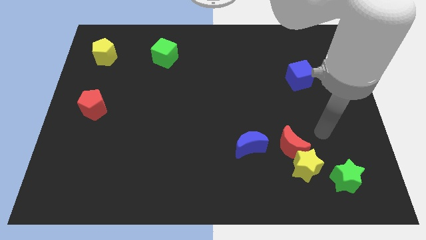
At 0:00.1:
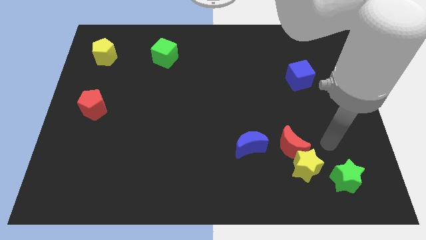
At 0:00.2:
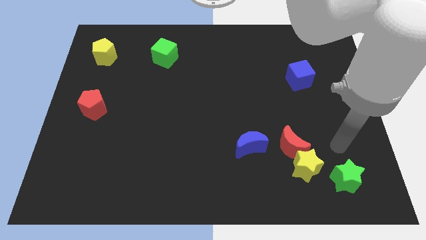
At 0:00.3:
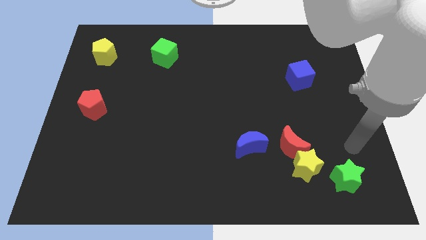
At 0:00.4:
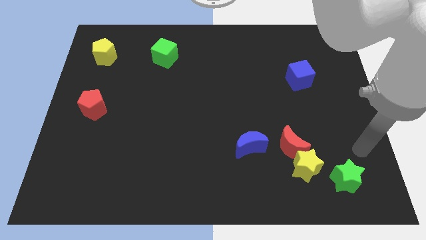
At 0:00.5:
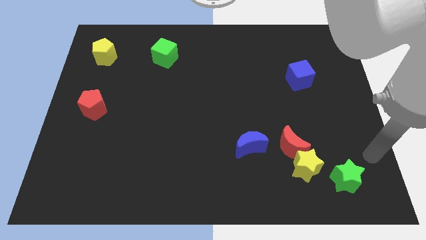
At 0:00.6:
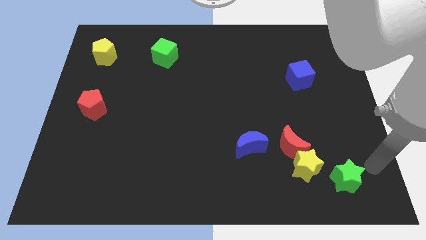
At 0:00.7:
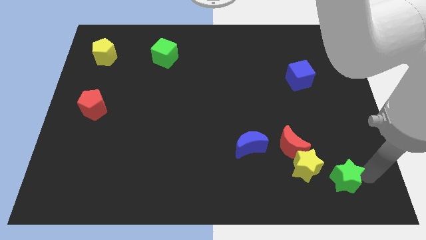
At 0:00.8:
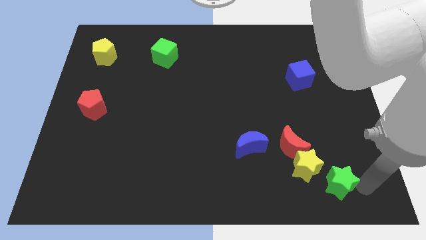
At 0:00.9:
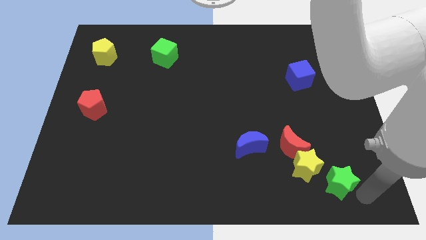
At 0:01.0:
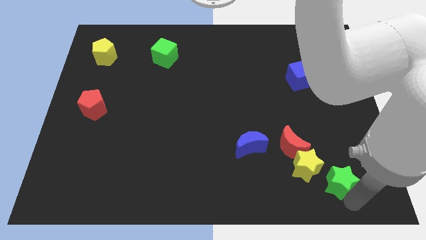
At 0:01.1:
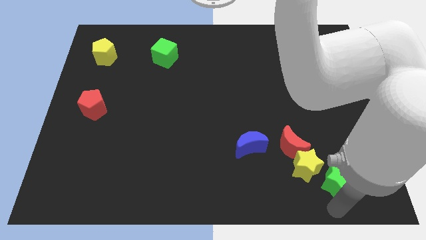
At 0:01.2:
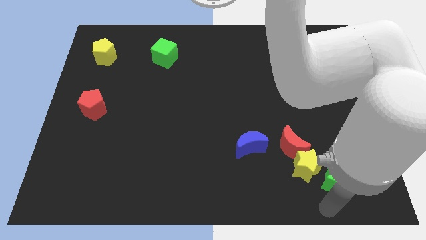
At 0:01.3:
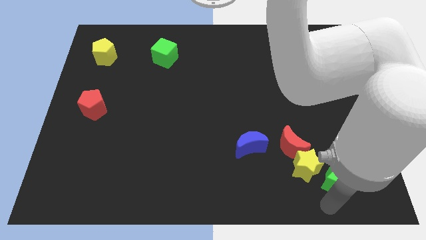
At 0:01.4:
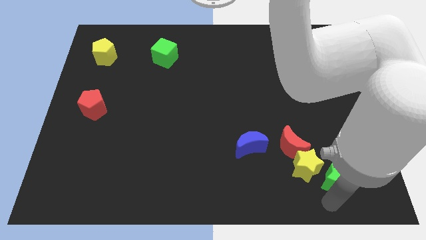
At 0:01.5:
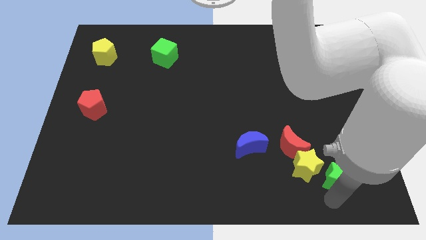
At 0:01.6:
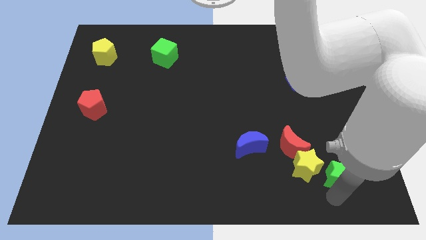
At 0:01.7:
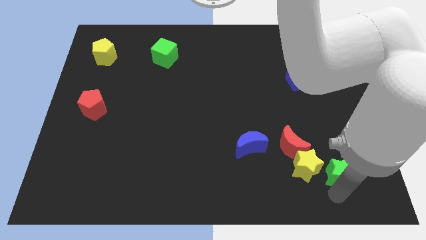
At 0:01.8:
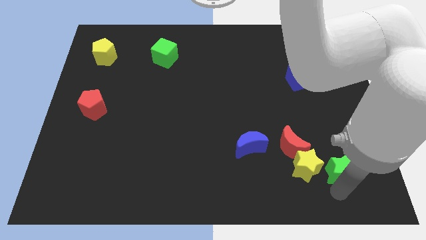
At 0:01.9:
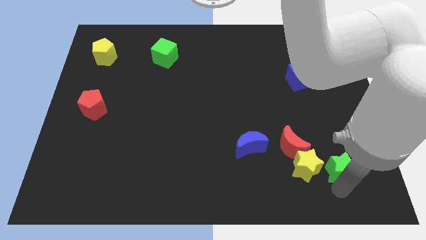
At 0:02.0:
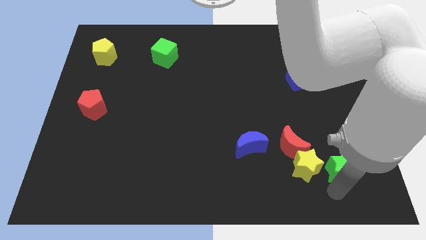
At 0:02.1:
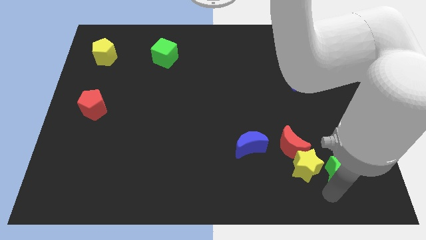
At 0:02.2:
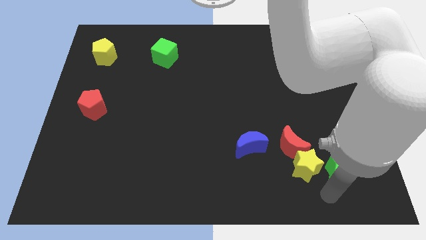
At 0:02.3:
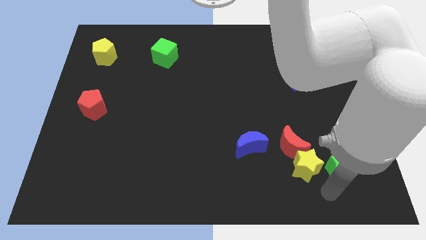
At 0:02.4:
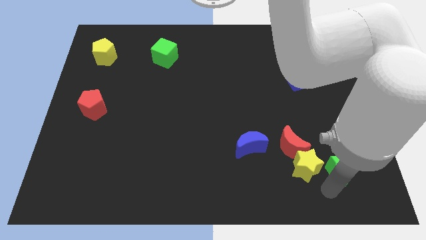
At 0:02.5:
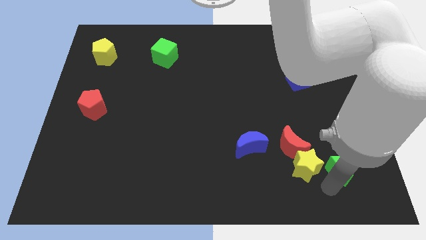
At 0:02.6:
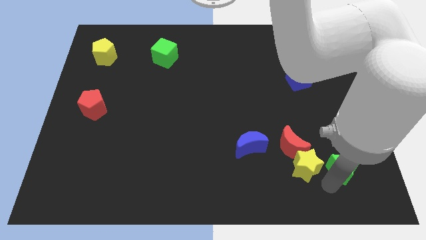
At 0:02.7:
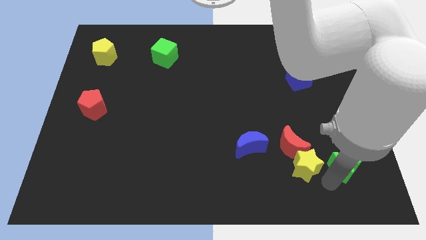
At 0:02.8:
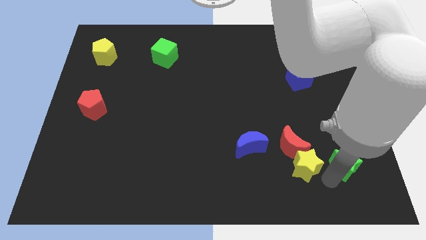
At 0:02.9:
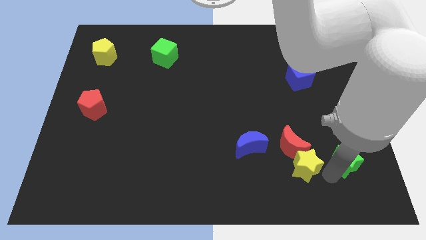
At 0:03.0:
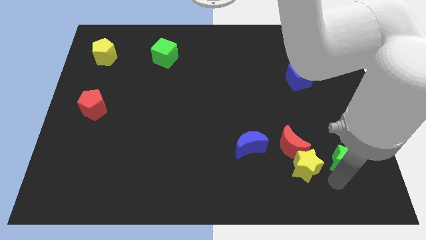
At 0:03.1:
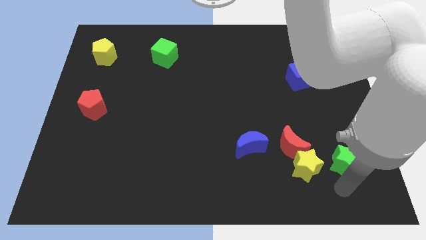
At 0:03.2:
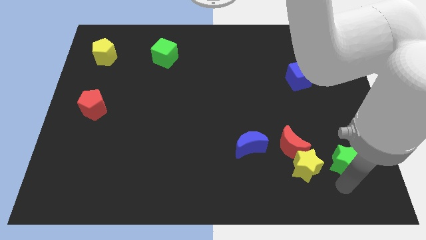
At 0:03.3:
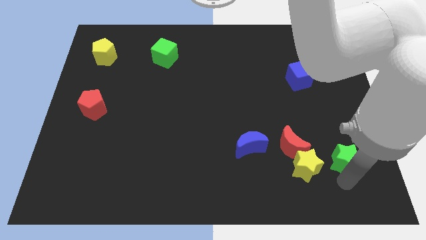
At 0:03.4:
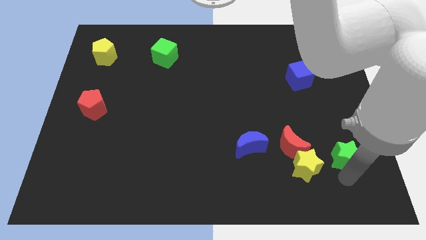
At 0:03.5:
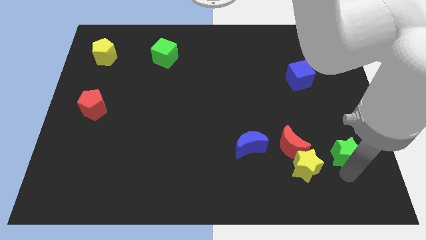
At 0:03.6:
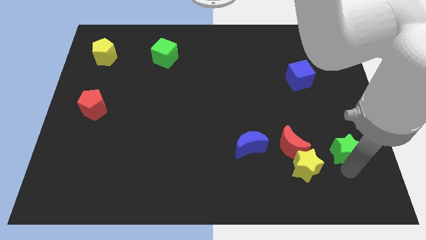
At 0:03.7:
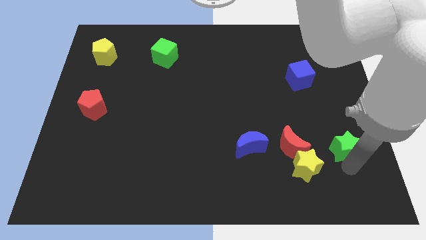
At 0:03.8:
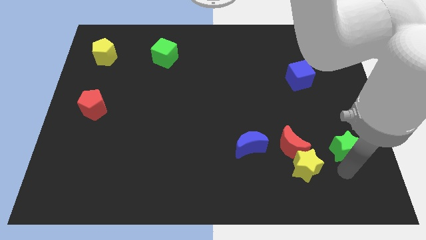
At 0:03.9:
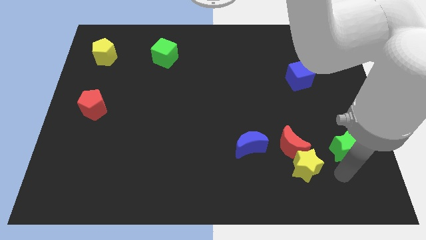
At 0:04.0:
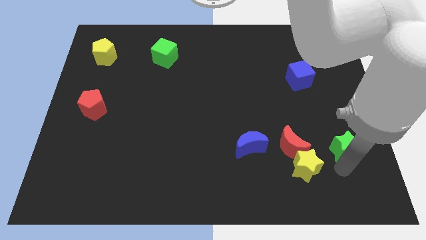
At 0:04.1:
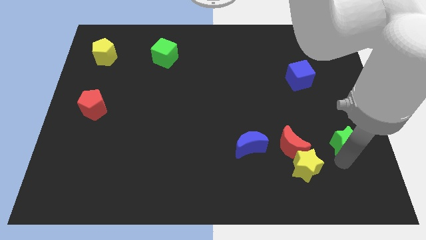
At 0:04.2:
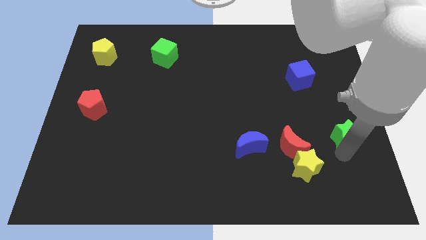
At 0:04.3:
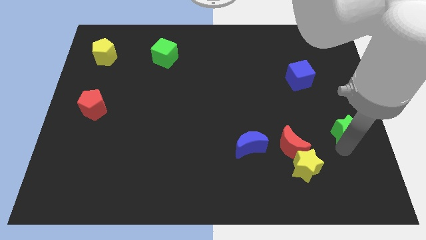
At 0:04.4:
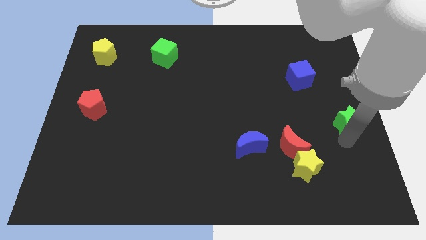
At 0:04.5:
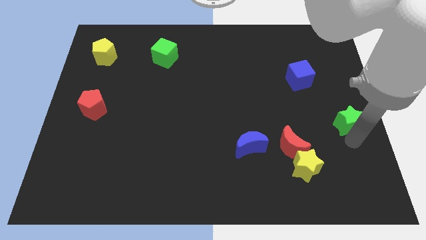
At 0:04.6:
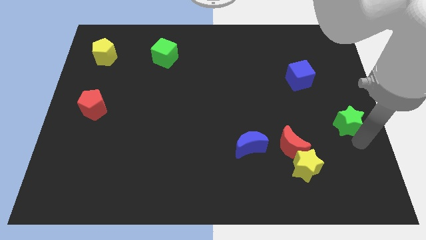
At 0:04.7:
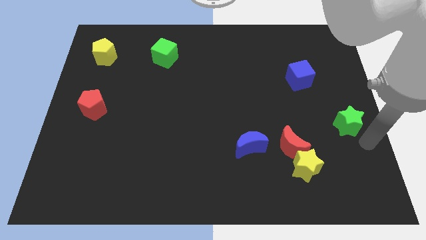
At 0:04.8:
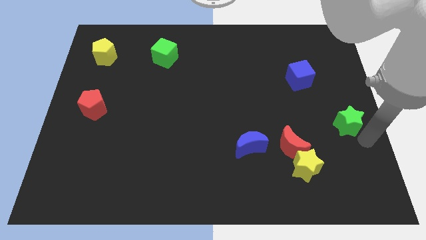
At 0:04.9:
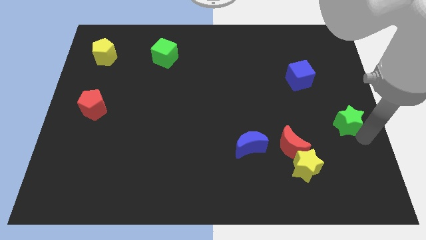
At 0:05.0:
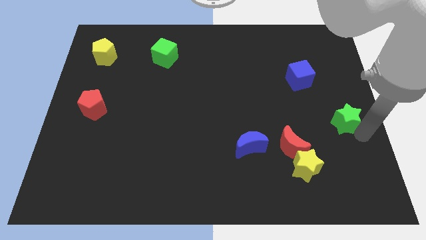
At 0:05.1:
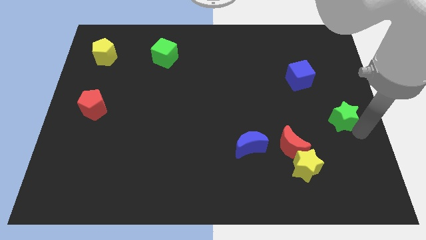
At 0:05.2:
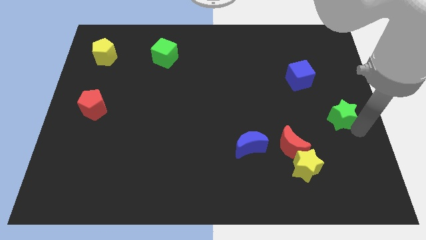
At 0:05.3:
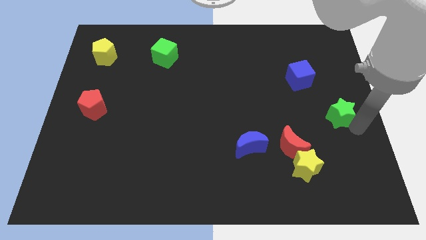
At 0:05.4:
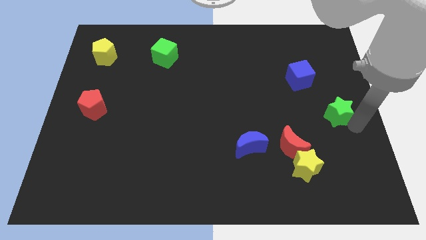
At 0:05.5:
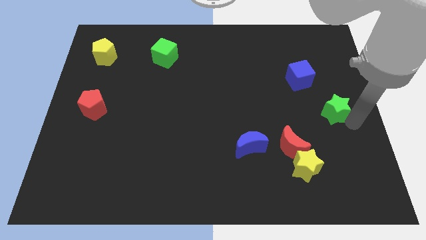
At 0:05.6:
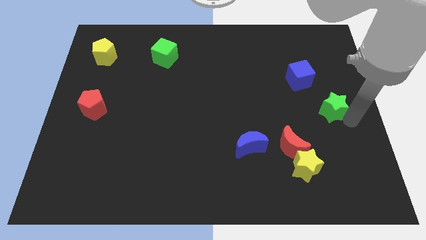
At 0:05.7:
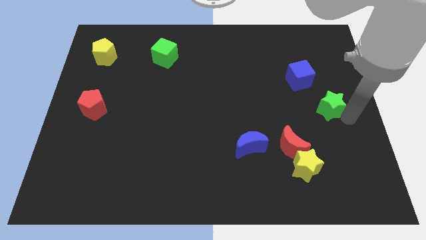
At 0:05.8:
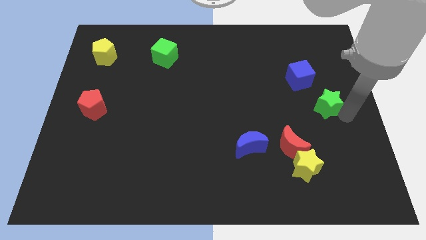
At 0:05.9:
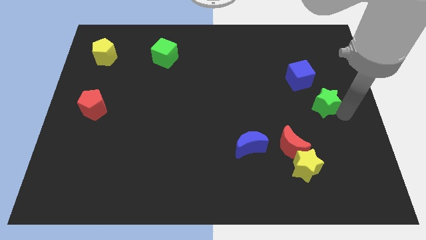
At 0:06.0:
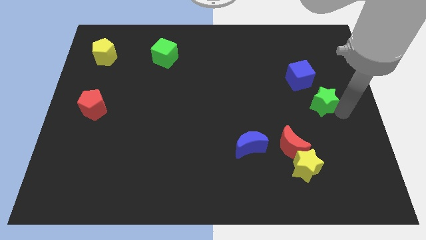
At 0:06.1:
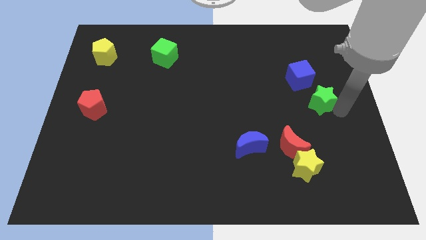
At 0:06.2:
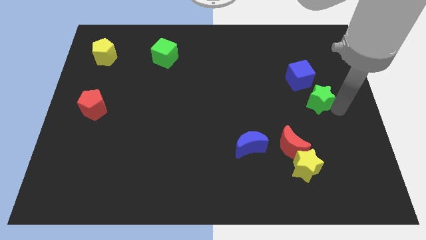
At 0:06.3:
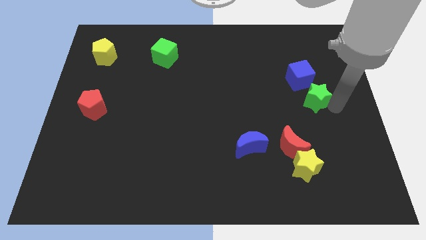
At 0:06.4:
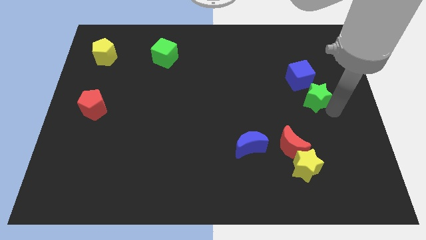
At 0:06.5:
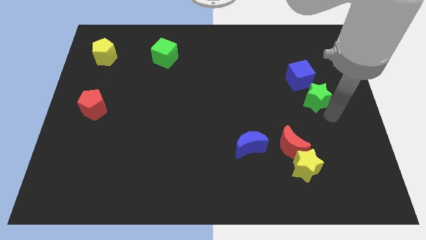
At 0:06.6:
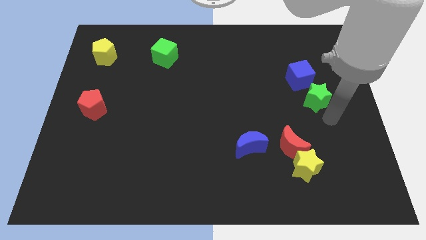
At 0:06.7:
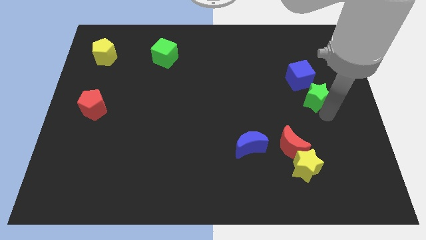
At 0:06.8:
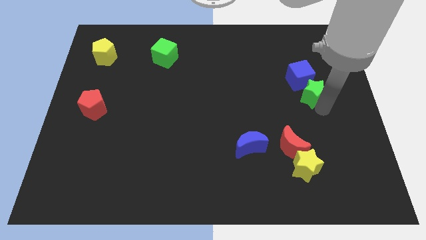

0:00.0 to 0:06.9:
slide the green star next to the blue cube

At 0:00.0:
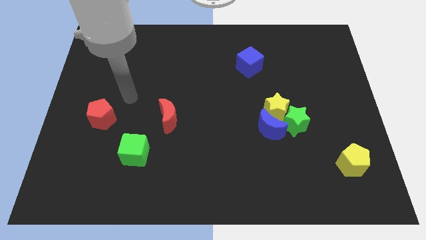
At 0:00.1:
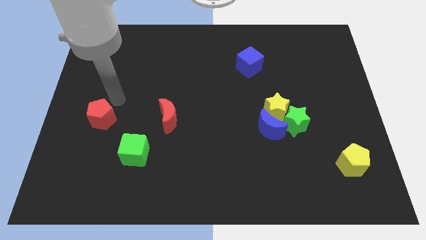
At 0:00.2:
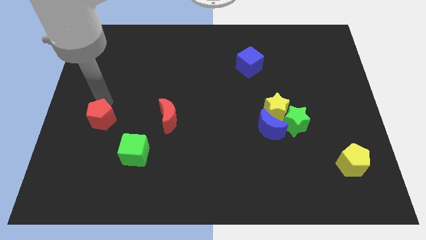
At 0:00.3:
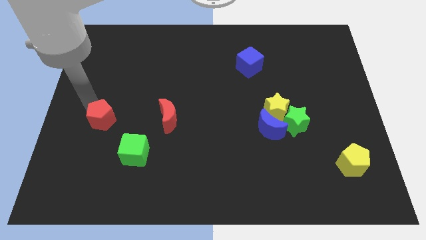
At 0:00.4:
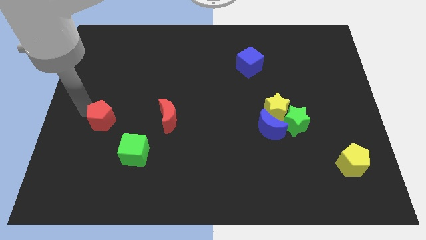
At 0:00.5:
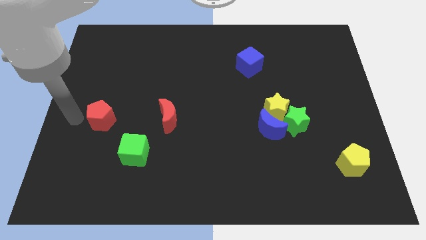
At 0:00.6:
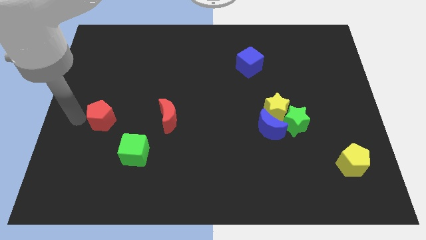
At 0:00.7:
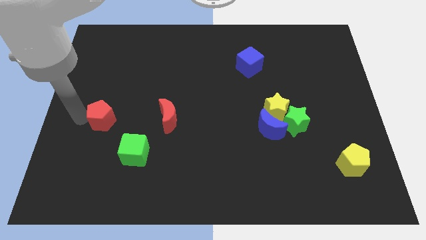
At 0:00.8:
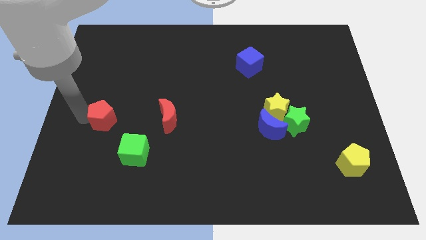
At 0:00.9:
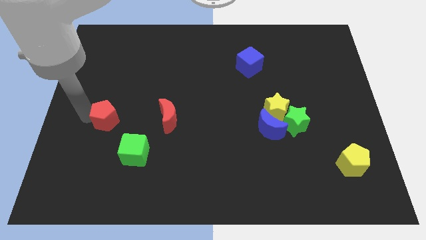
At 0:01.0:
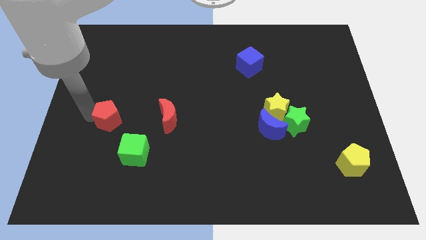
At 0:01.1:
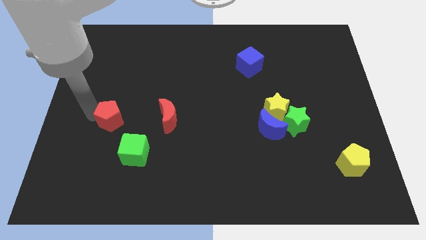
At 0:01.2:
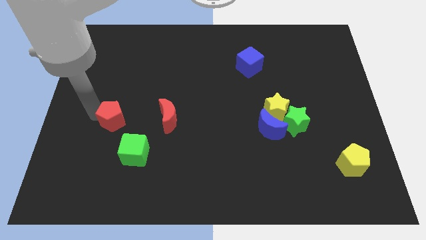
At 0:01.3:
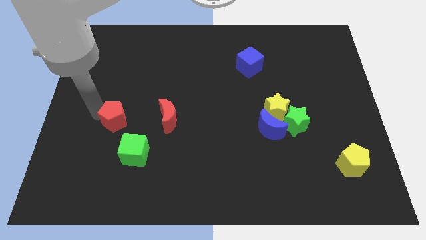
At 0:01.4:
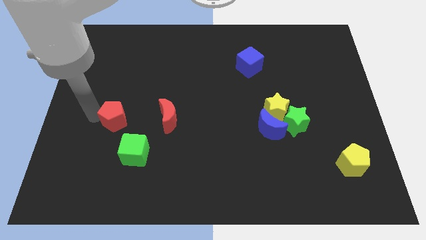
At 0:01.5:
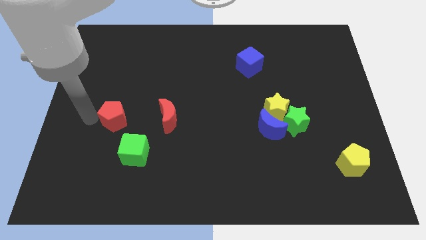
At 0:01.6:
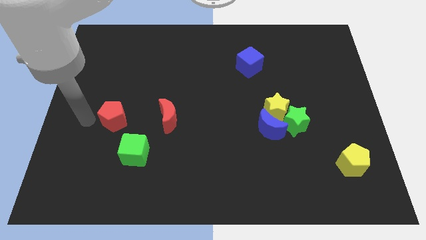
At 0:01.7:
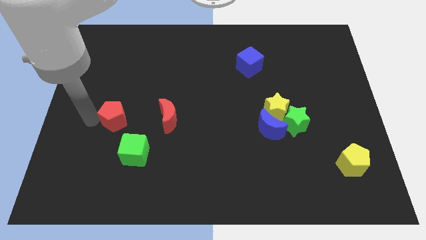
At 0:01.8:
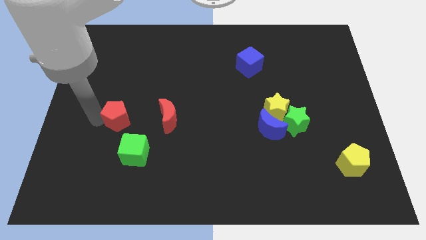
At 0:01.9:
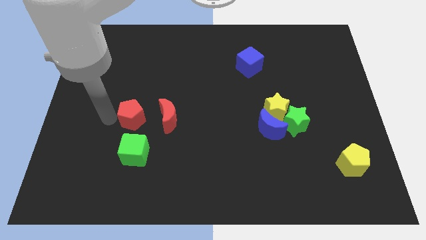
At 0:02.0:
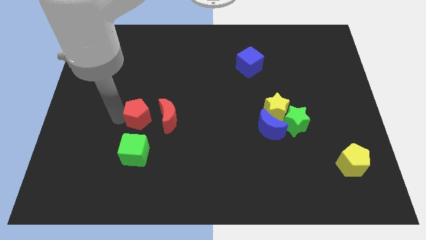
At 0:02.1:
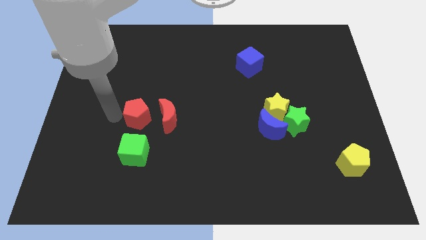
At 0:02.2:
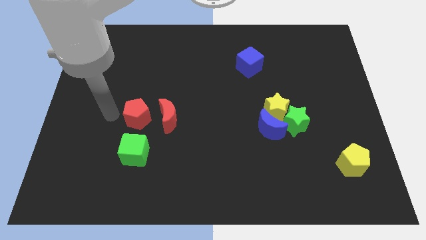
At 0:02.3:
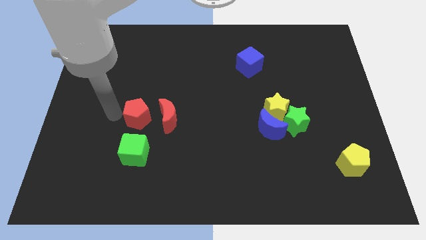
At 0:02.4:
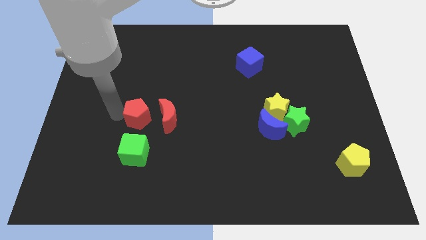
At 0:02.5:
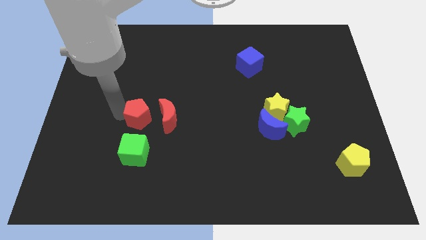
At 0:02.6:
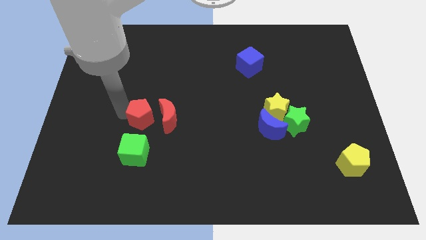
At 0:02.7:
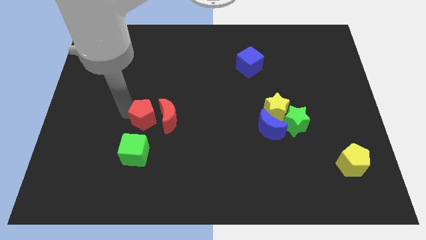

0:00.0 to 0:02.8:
put the red pentagon next to the red moon
